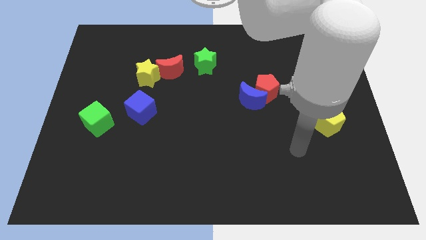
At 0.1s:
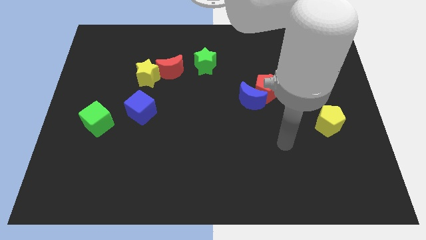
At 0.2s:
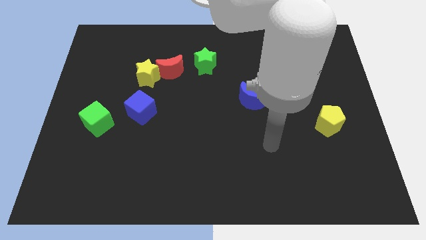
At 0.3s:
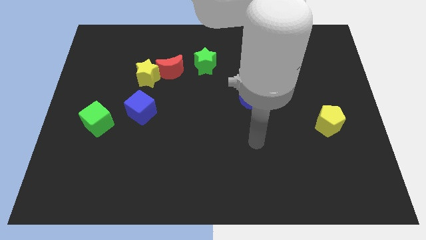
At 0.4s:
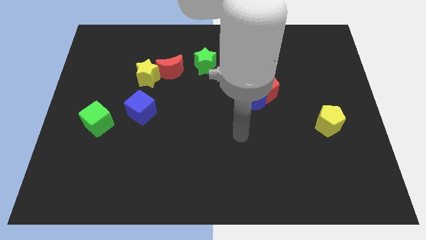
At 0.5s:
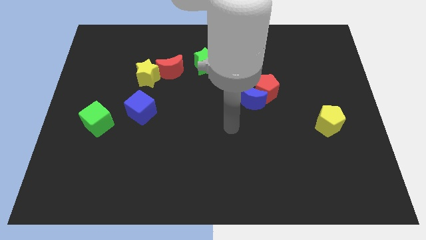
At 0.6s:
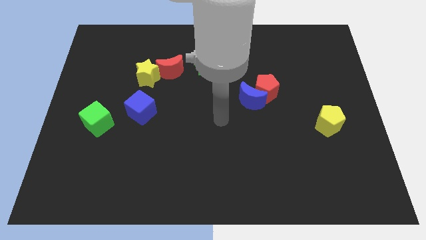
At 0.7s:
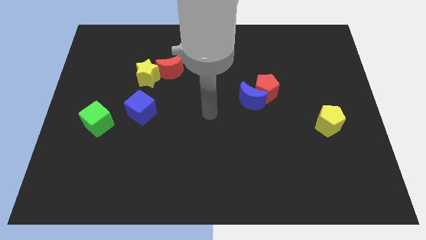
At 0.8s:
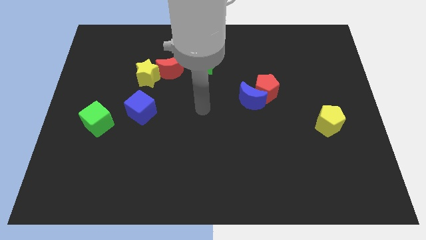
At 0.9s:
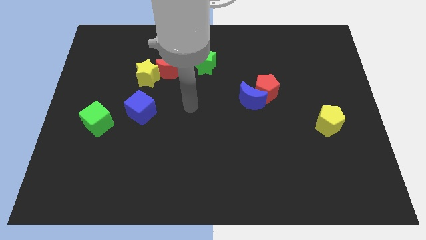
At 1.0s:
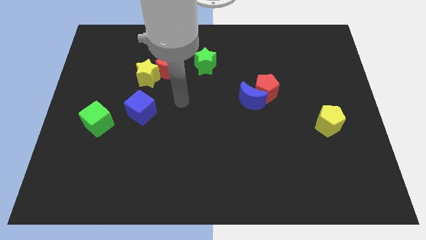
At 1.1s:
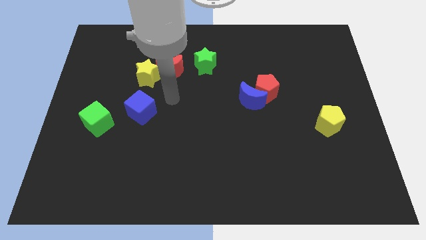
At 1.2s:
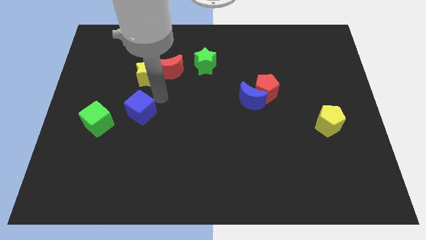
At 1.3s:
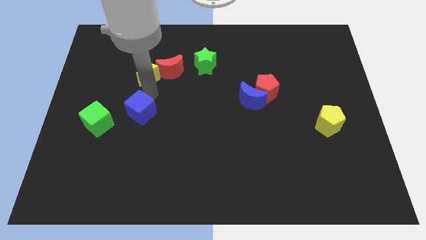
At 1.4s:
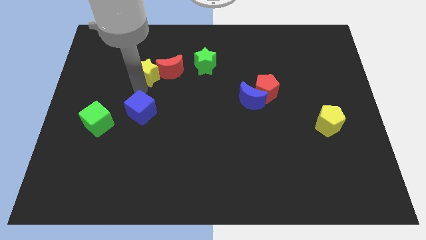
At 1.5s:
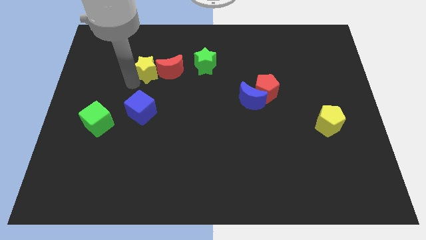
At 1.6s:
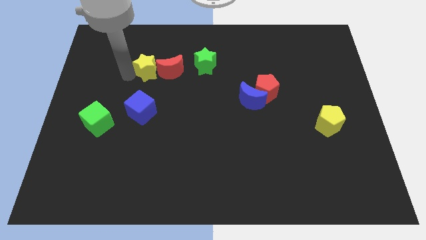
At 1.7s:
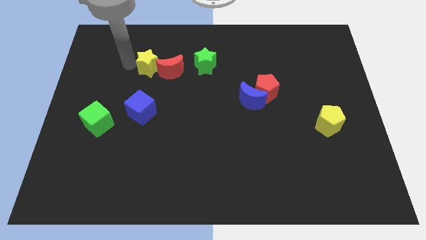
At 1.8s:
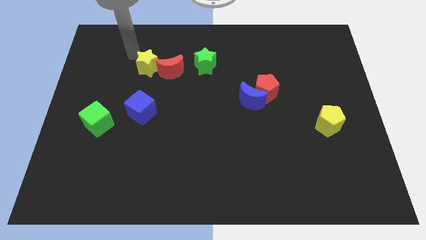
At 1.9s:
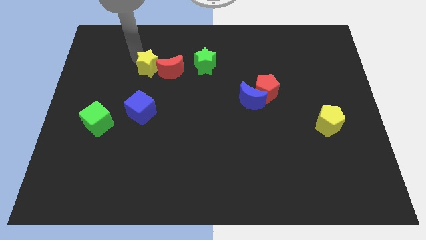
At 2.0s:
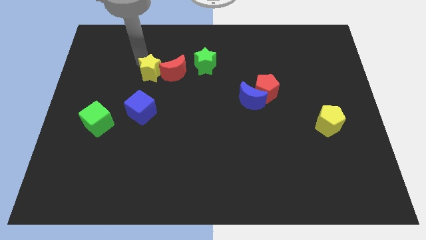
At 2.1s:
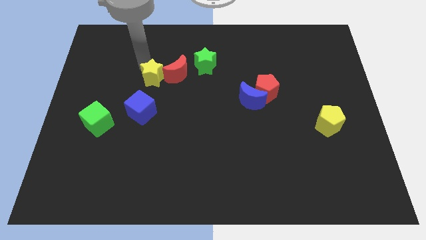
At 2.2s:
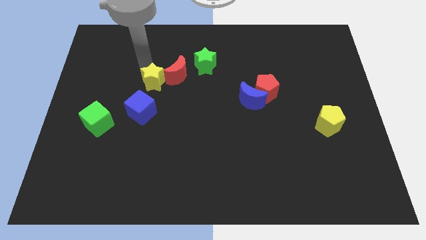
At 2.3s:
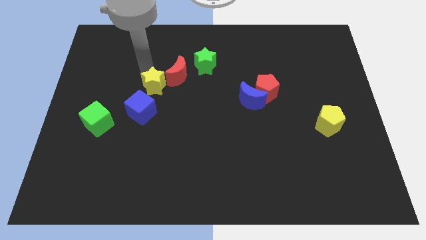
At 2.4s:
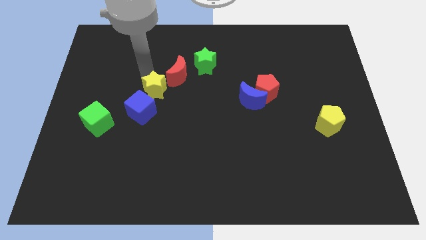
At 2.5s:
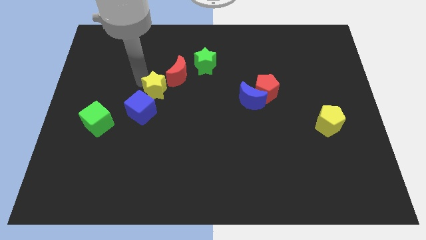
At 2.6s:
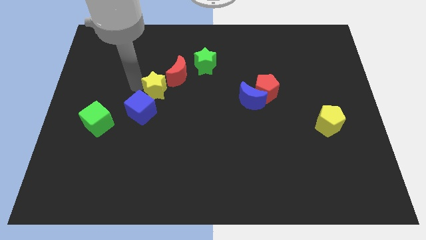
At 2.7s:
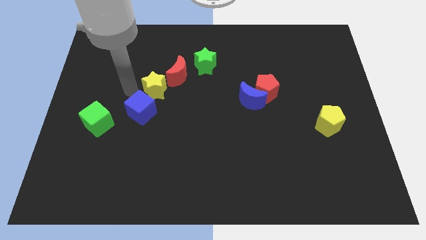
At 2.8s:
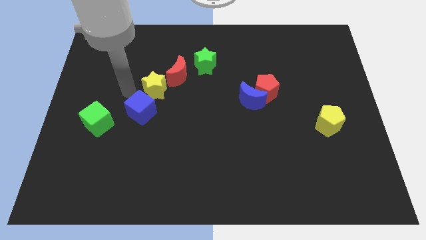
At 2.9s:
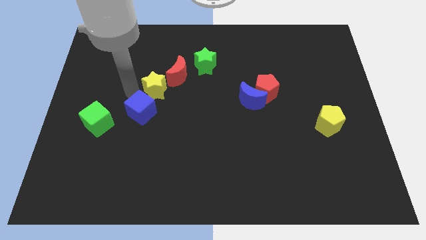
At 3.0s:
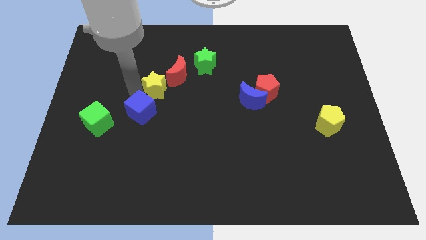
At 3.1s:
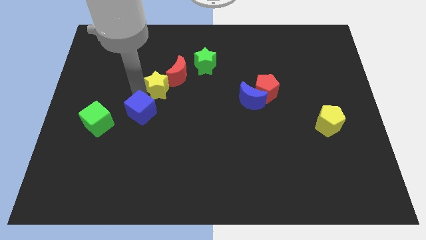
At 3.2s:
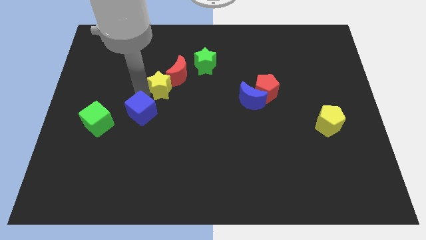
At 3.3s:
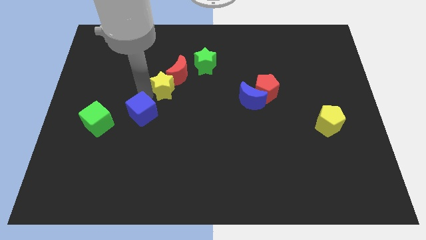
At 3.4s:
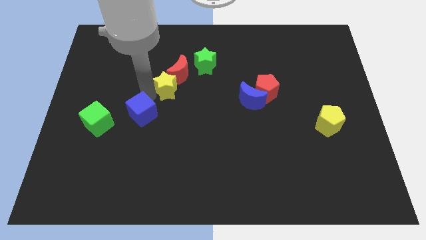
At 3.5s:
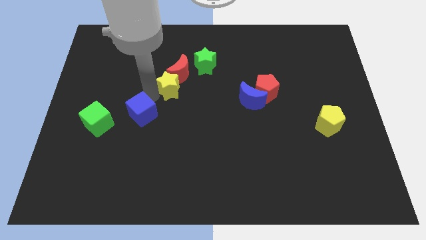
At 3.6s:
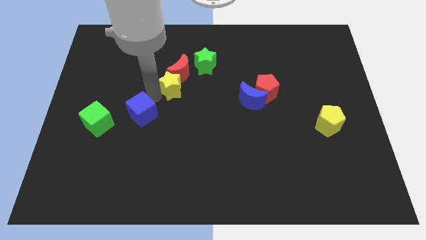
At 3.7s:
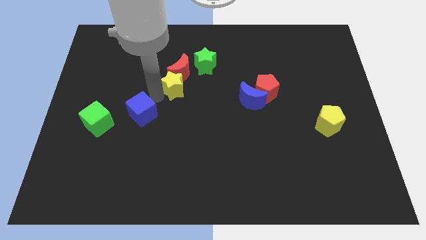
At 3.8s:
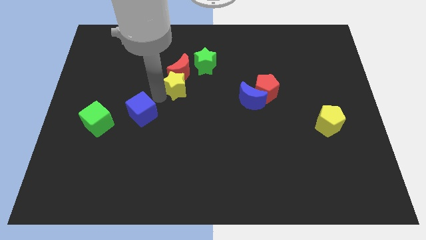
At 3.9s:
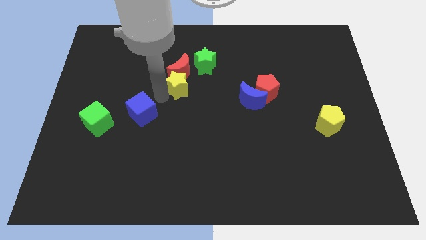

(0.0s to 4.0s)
push the yellow star right a little bit

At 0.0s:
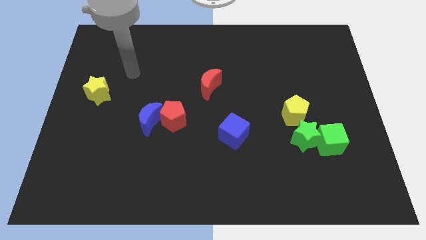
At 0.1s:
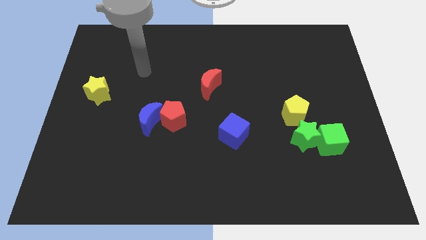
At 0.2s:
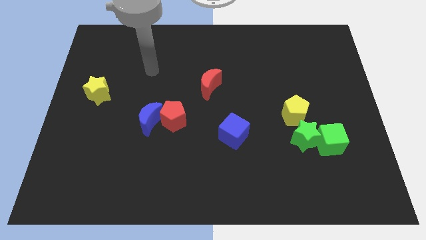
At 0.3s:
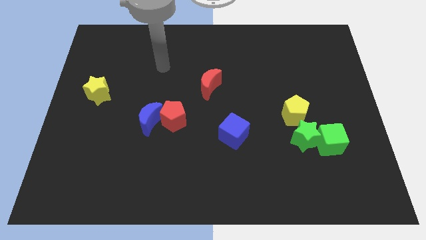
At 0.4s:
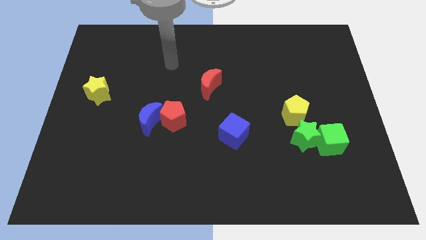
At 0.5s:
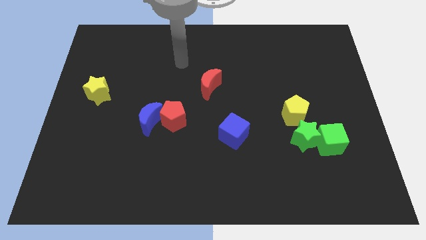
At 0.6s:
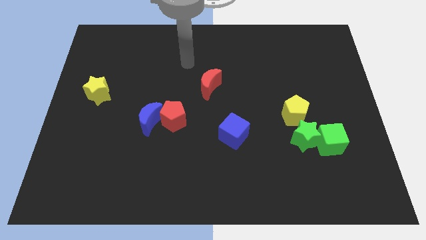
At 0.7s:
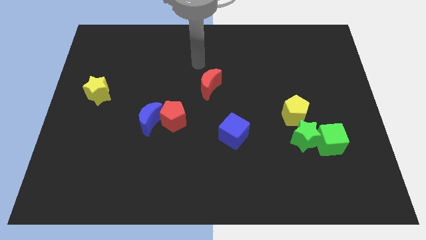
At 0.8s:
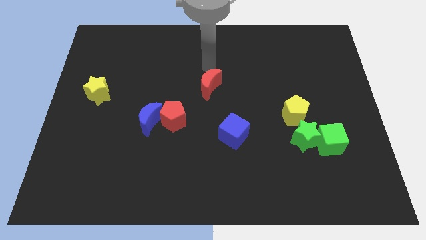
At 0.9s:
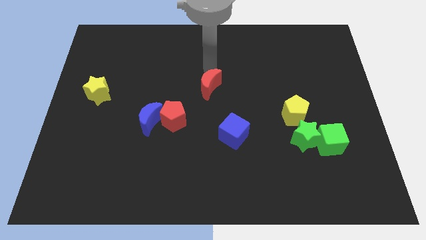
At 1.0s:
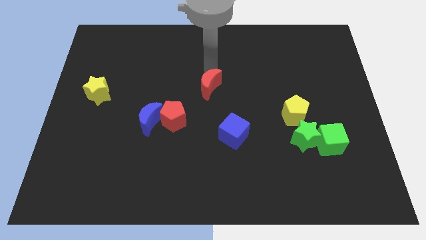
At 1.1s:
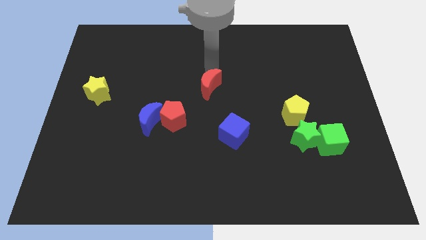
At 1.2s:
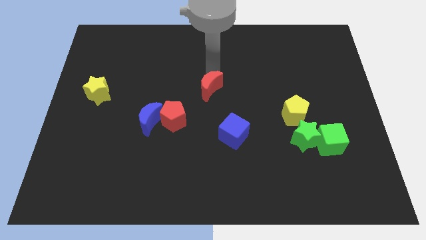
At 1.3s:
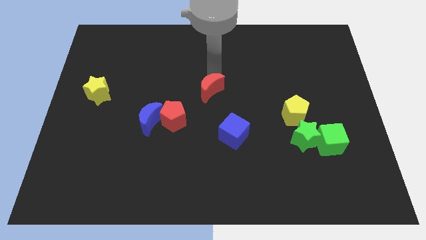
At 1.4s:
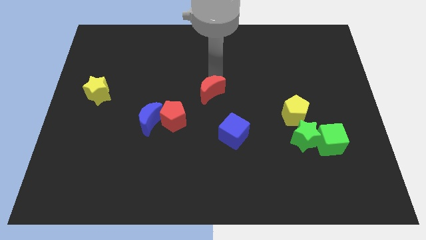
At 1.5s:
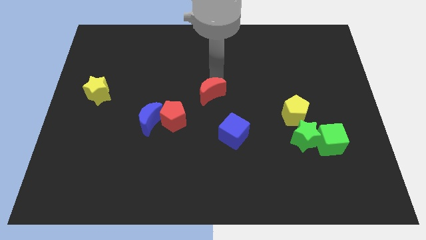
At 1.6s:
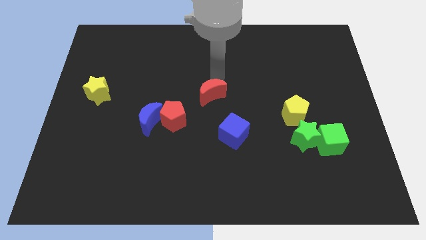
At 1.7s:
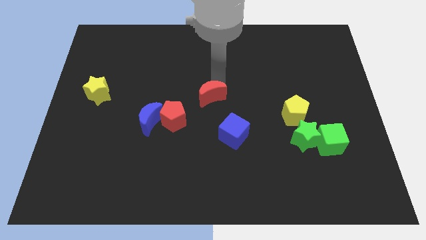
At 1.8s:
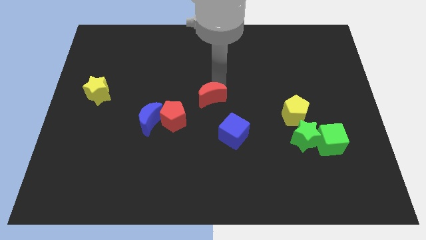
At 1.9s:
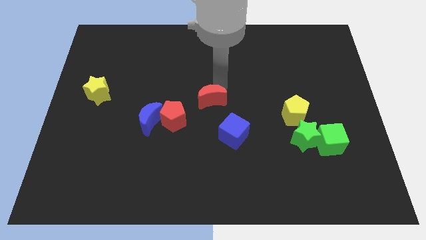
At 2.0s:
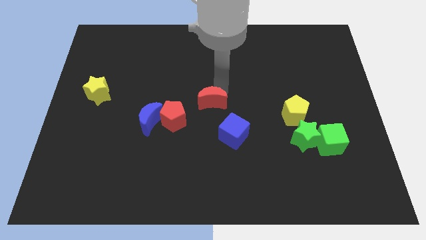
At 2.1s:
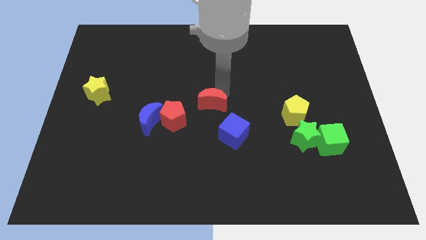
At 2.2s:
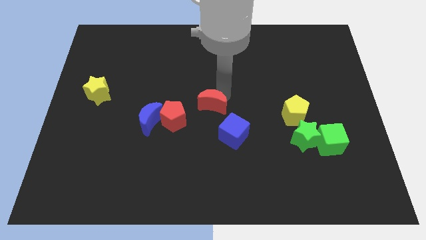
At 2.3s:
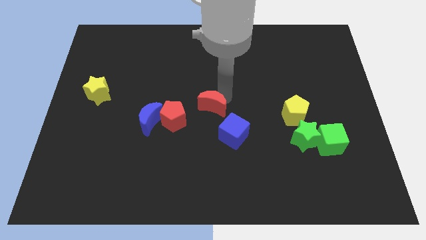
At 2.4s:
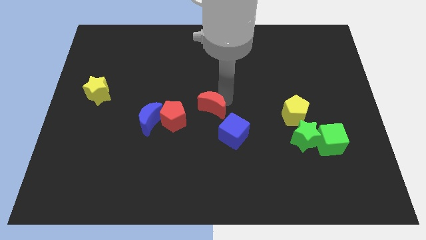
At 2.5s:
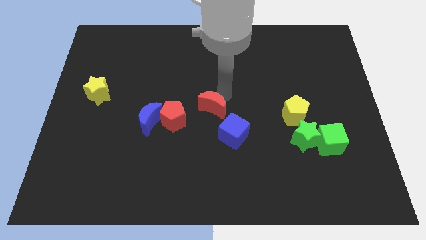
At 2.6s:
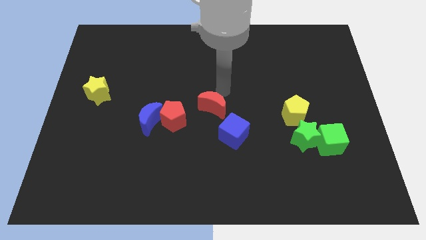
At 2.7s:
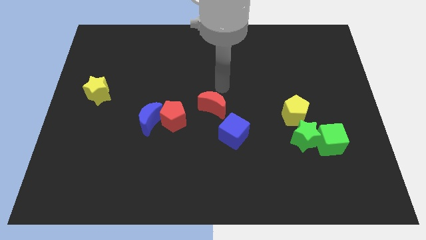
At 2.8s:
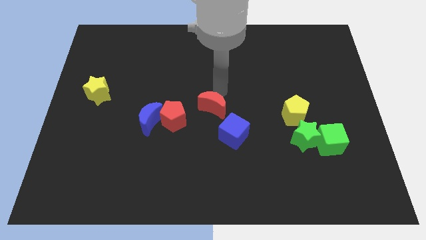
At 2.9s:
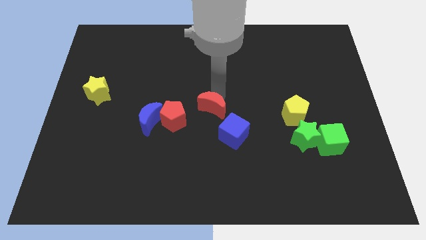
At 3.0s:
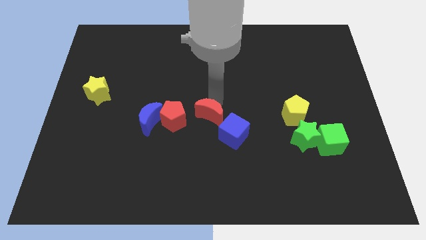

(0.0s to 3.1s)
push the red moon a little downwards
